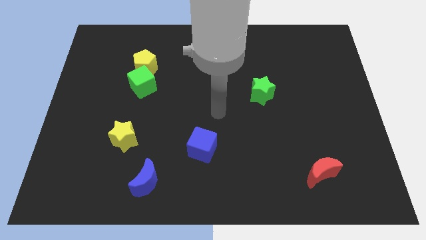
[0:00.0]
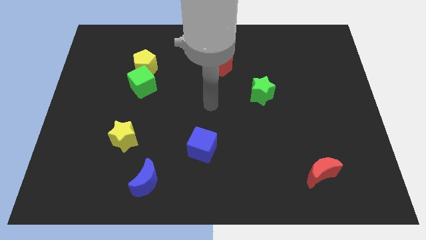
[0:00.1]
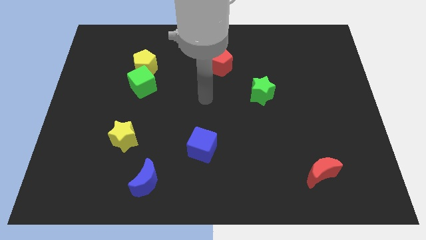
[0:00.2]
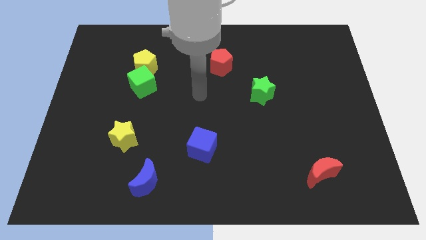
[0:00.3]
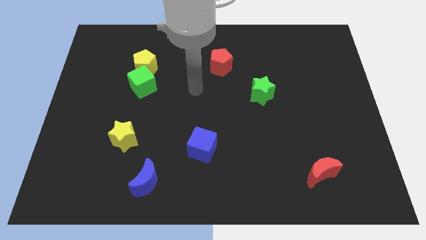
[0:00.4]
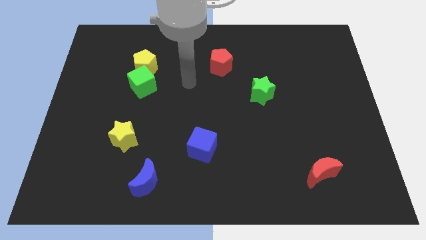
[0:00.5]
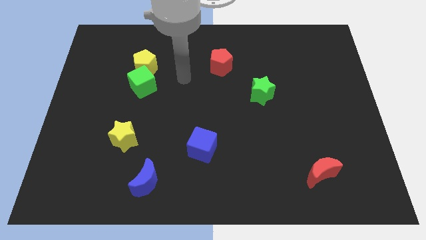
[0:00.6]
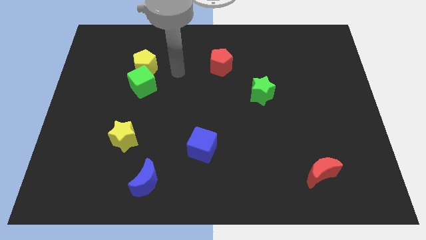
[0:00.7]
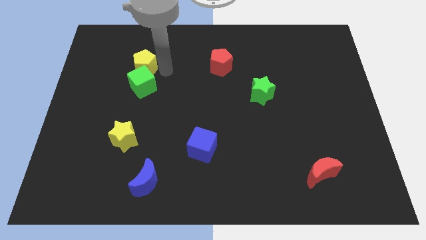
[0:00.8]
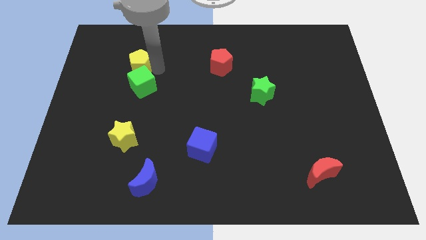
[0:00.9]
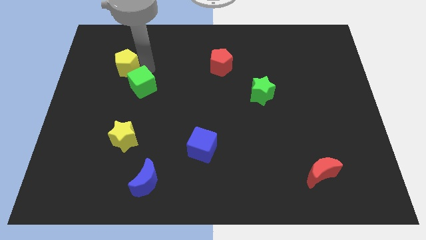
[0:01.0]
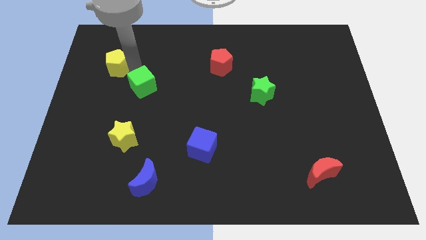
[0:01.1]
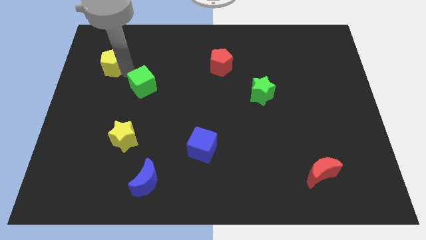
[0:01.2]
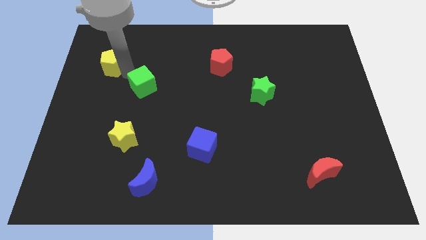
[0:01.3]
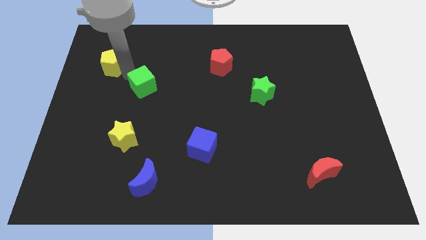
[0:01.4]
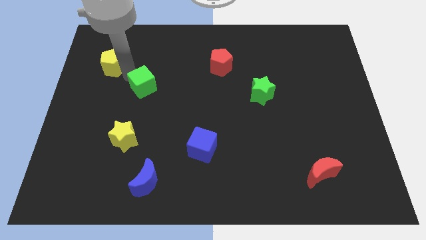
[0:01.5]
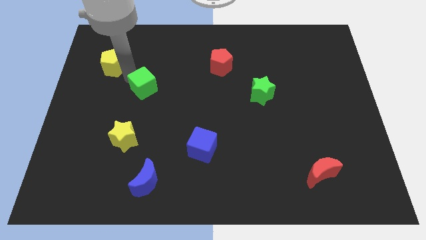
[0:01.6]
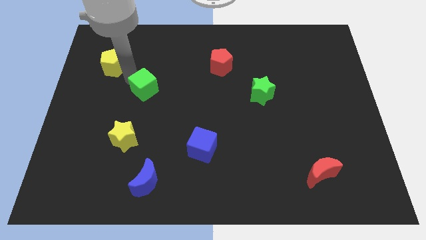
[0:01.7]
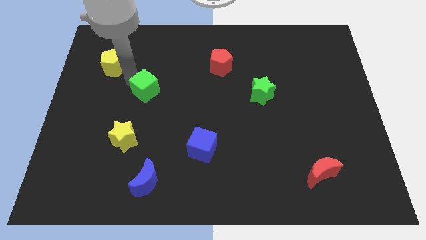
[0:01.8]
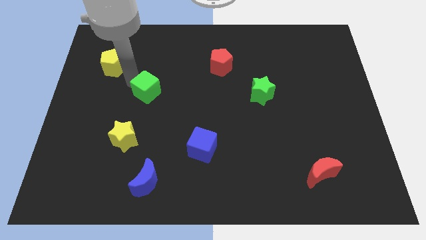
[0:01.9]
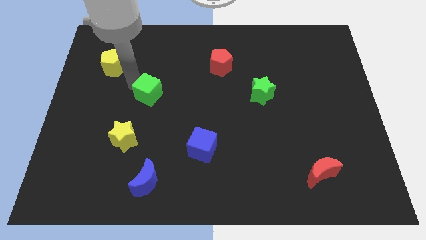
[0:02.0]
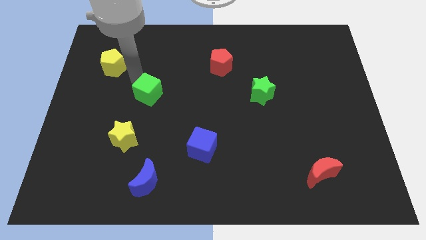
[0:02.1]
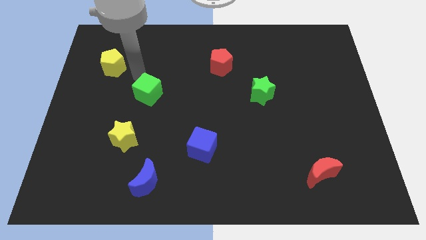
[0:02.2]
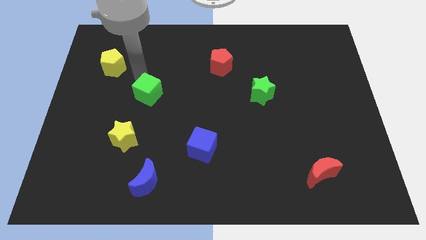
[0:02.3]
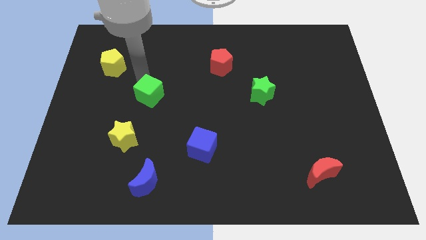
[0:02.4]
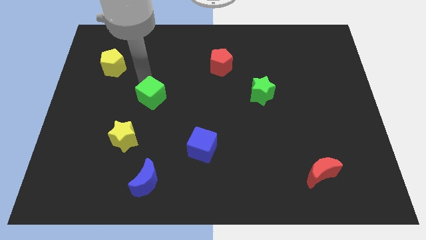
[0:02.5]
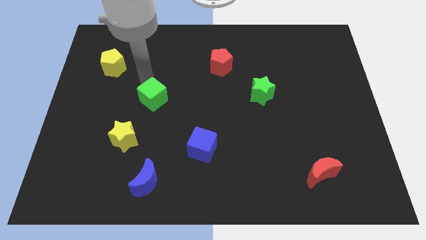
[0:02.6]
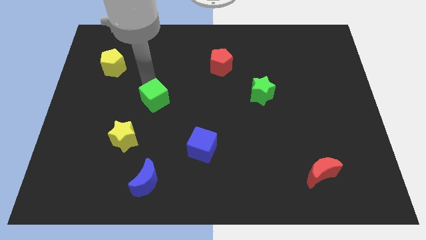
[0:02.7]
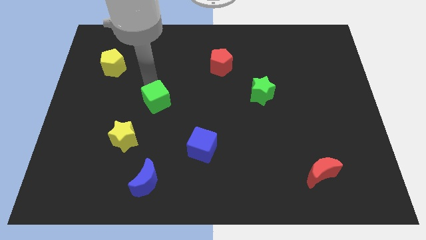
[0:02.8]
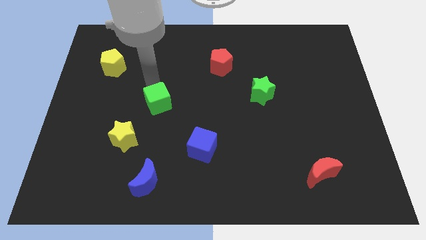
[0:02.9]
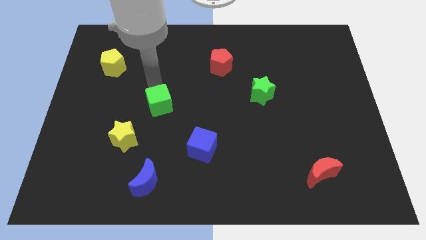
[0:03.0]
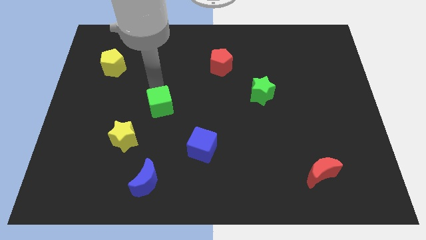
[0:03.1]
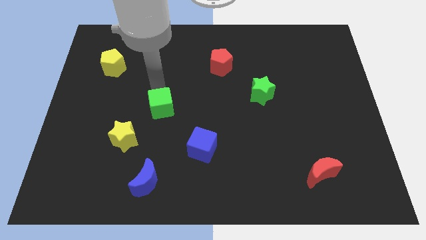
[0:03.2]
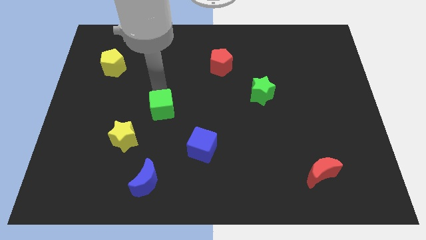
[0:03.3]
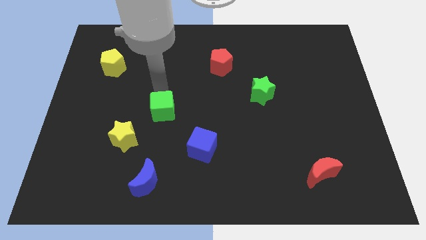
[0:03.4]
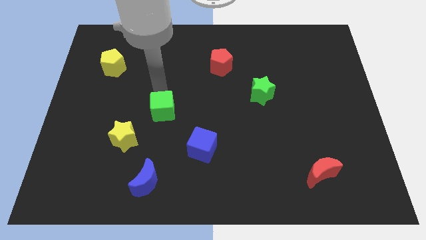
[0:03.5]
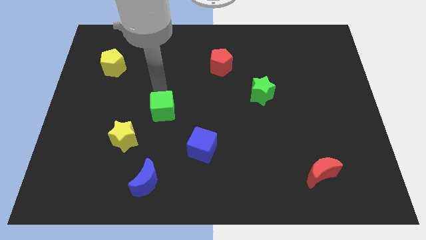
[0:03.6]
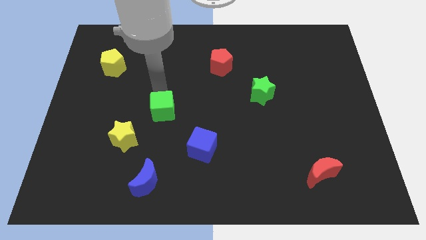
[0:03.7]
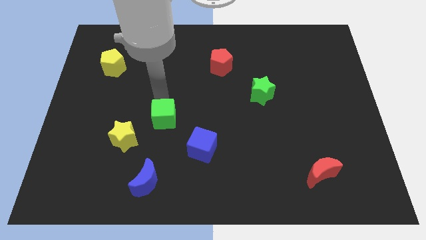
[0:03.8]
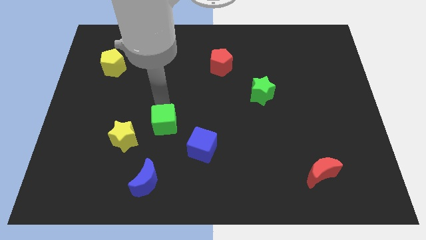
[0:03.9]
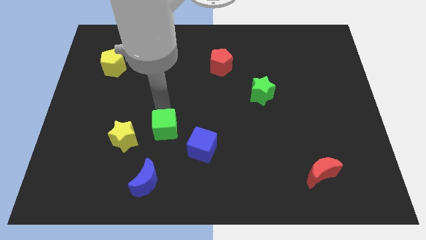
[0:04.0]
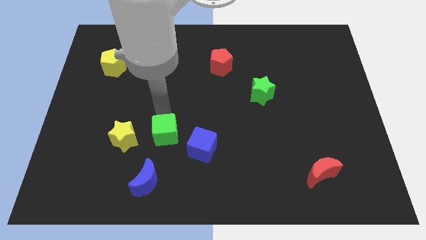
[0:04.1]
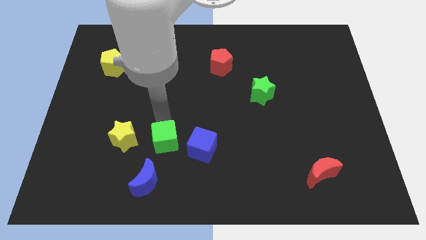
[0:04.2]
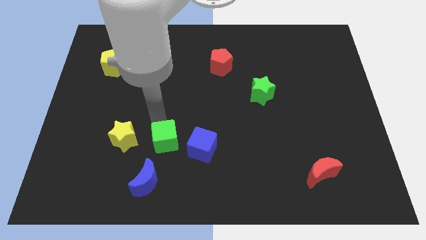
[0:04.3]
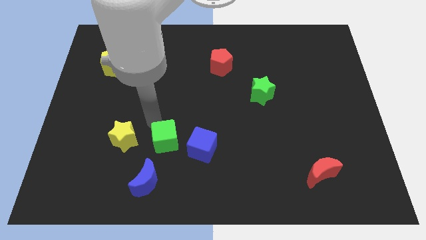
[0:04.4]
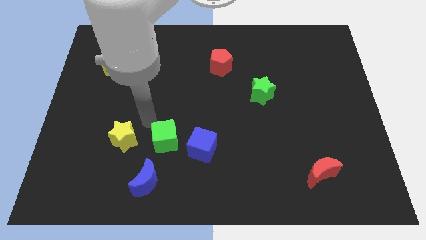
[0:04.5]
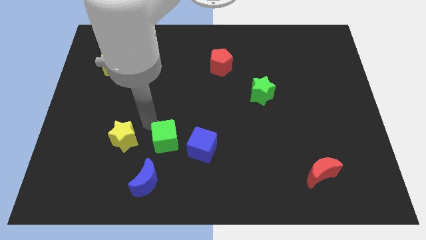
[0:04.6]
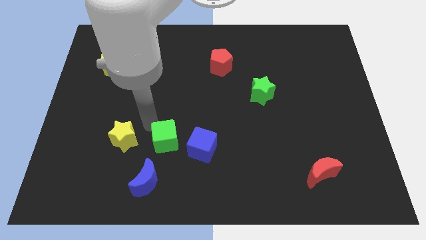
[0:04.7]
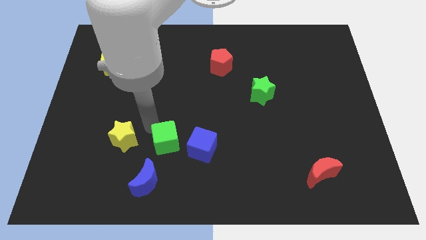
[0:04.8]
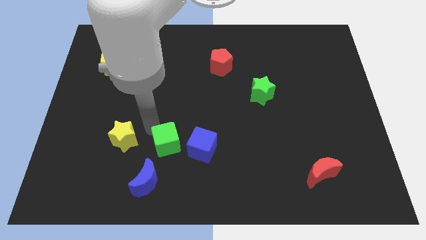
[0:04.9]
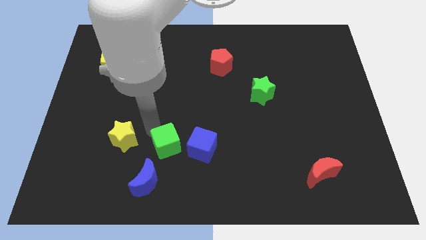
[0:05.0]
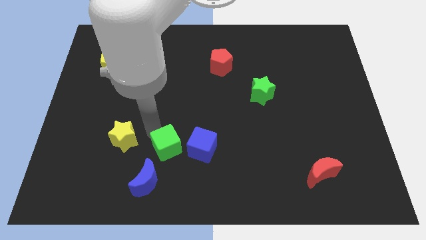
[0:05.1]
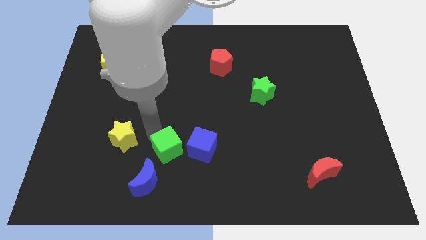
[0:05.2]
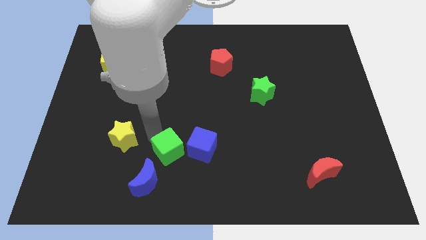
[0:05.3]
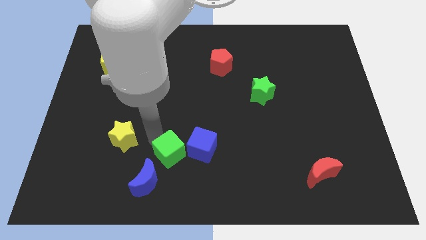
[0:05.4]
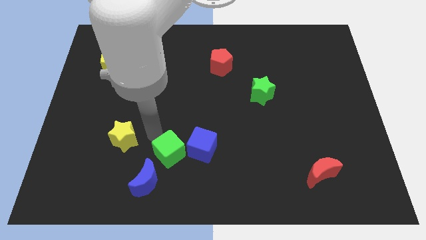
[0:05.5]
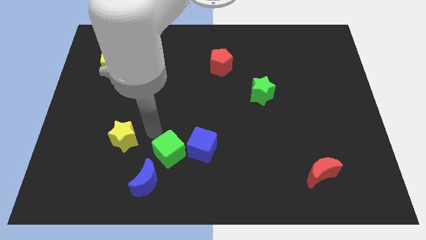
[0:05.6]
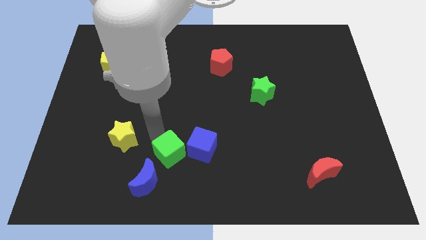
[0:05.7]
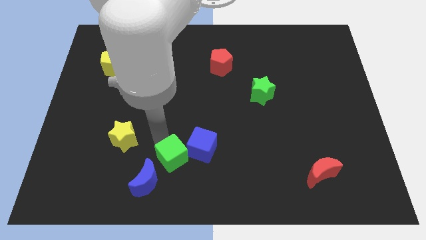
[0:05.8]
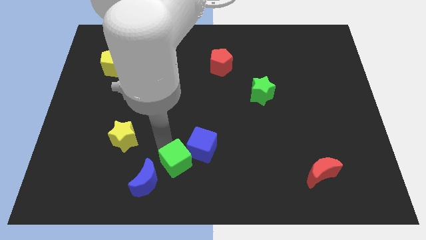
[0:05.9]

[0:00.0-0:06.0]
push the green cube to the right side of the blue moon

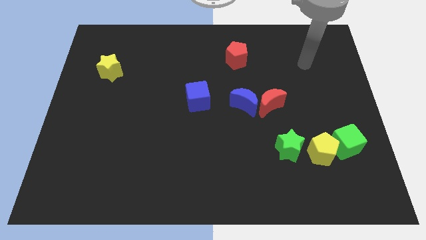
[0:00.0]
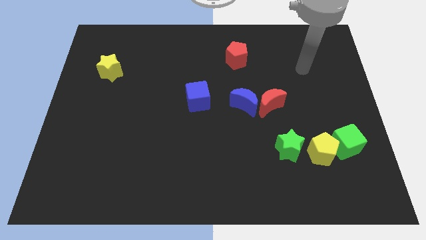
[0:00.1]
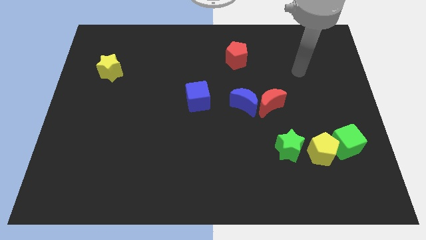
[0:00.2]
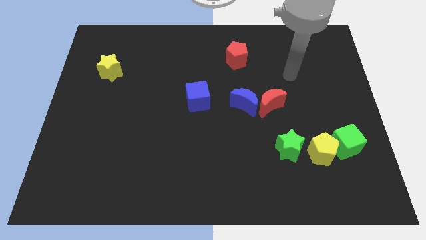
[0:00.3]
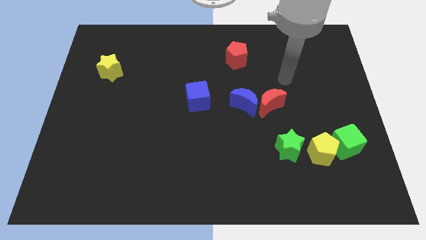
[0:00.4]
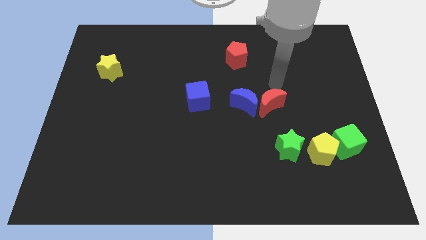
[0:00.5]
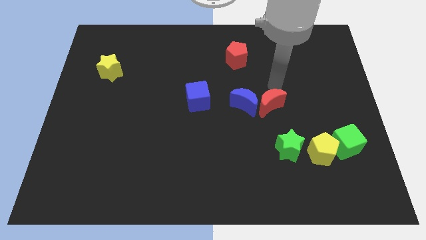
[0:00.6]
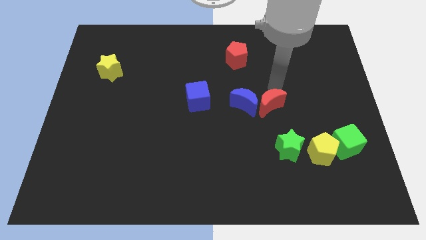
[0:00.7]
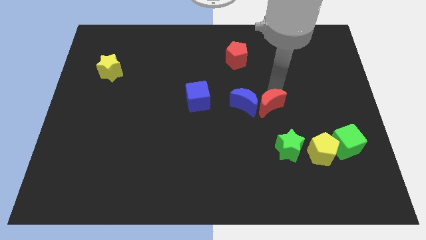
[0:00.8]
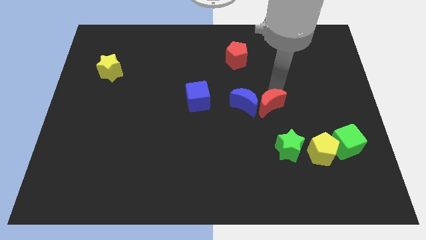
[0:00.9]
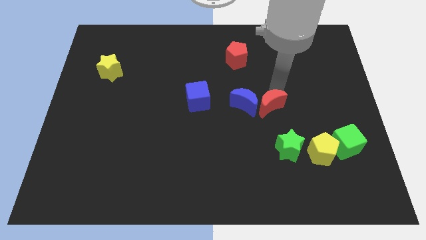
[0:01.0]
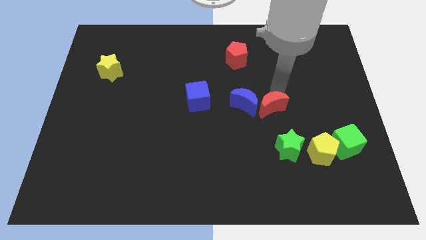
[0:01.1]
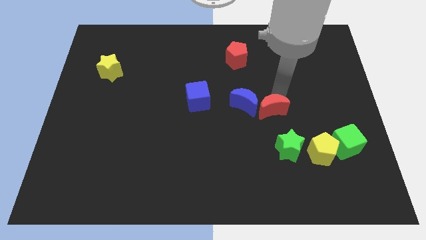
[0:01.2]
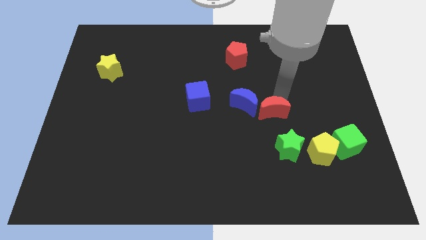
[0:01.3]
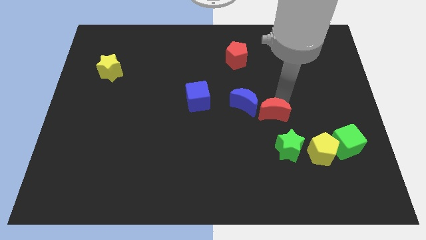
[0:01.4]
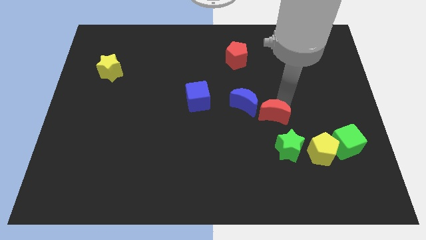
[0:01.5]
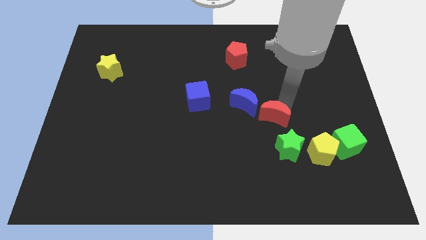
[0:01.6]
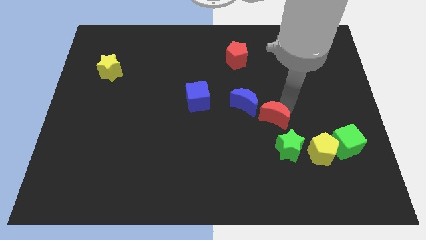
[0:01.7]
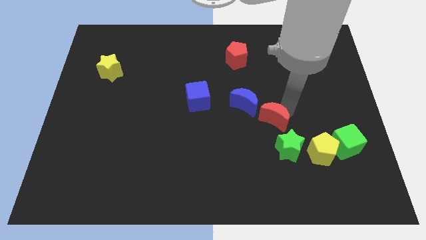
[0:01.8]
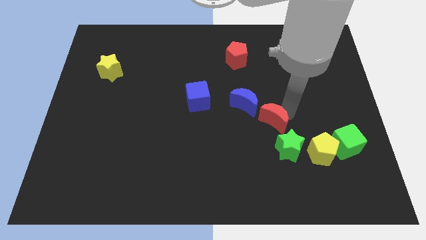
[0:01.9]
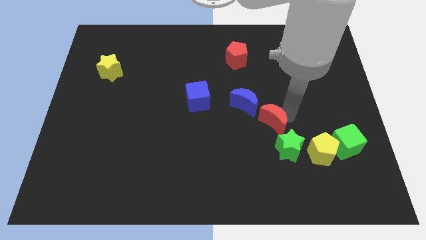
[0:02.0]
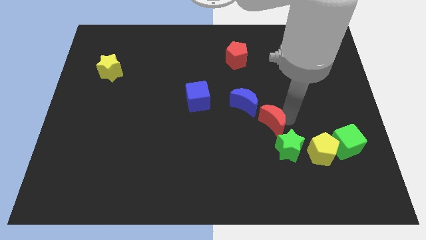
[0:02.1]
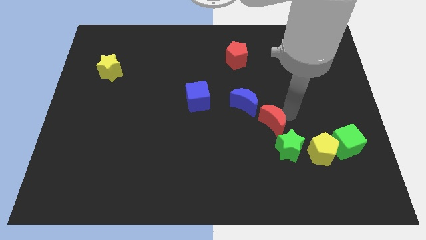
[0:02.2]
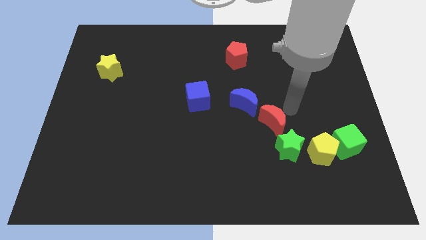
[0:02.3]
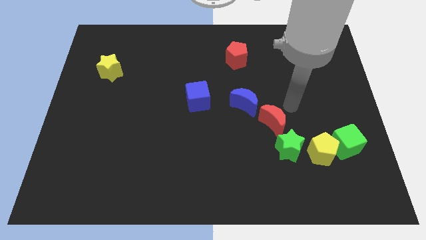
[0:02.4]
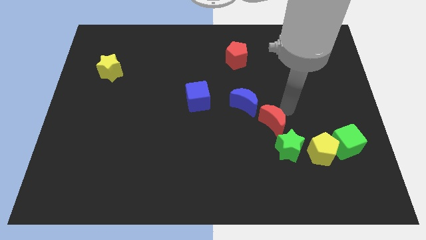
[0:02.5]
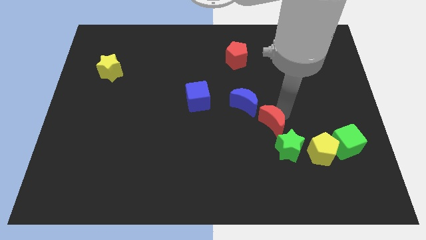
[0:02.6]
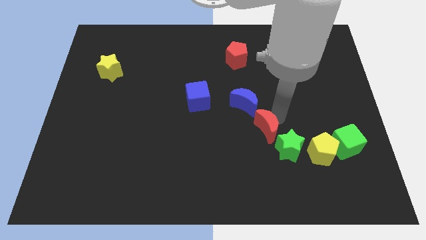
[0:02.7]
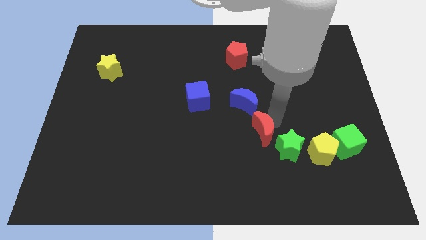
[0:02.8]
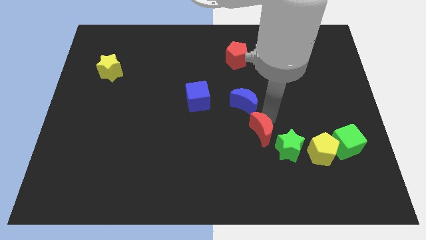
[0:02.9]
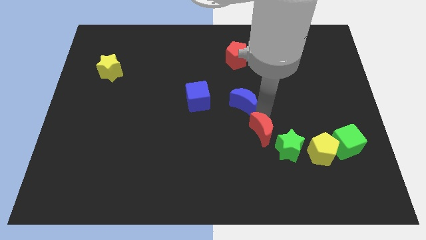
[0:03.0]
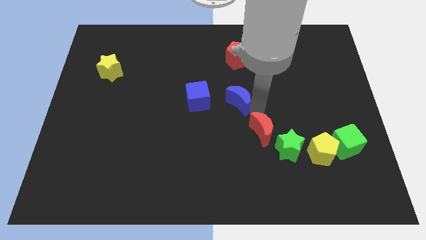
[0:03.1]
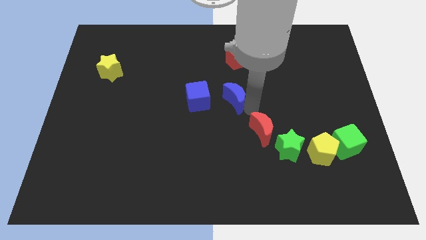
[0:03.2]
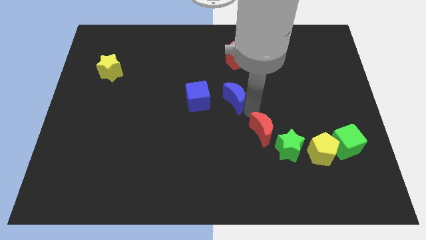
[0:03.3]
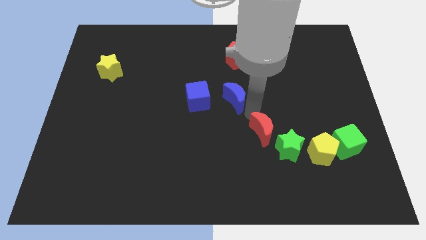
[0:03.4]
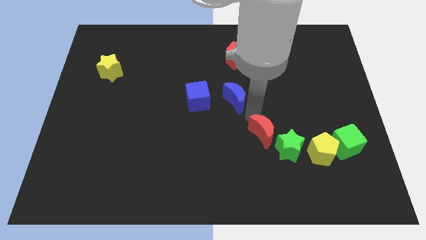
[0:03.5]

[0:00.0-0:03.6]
move the red moon just left of the yellow pentagon
